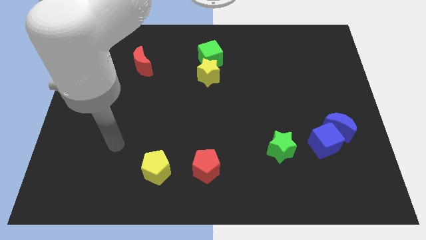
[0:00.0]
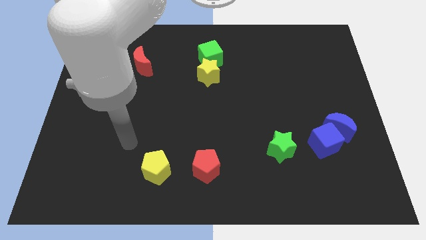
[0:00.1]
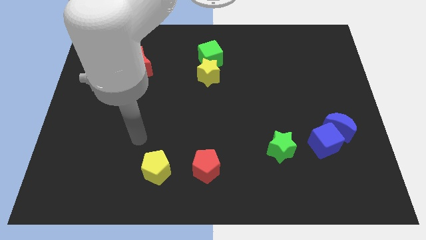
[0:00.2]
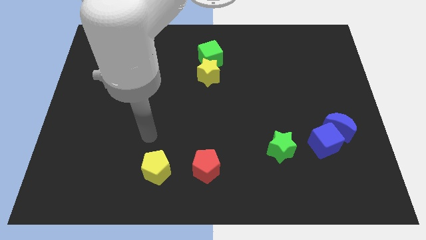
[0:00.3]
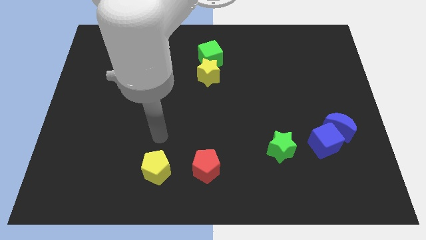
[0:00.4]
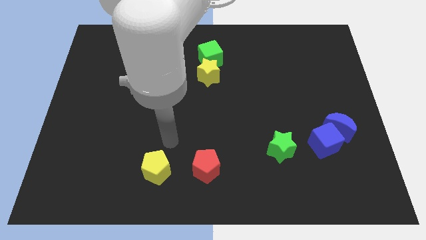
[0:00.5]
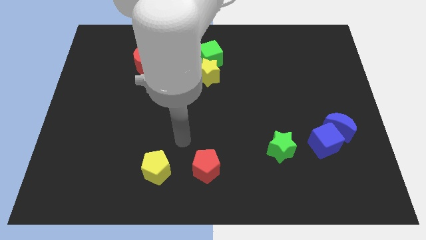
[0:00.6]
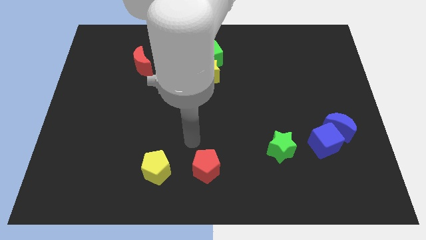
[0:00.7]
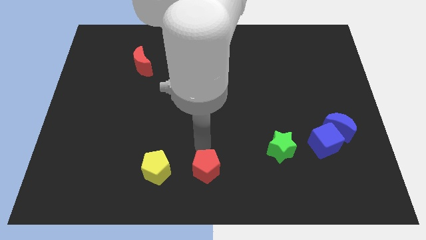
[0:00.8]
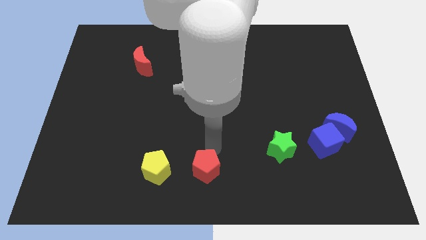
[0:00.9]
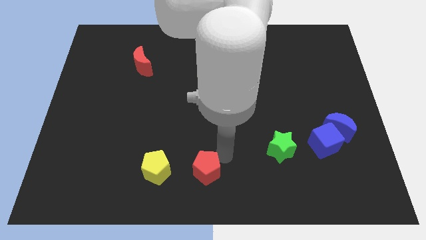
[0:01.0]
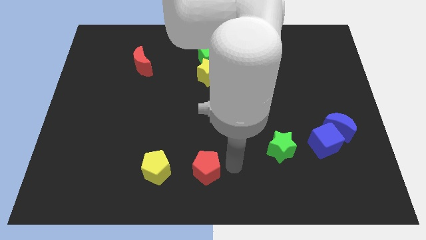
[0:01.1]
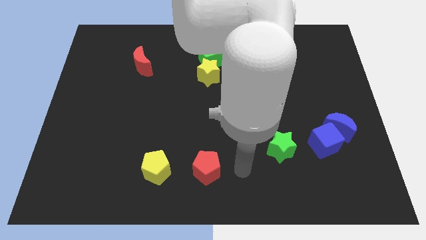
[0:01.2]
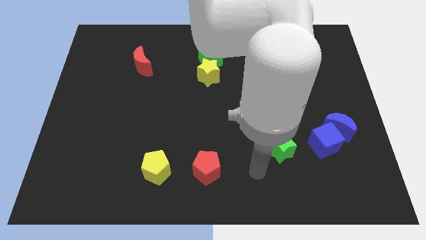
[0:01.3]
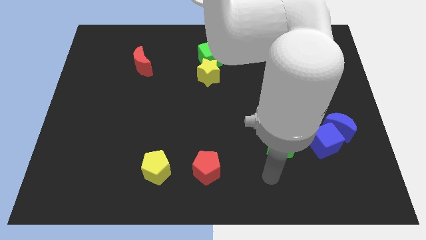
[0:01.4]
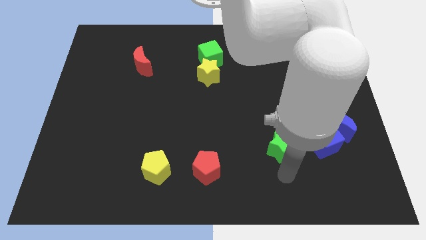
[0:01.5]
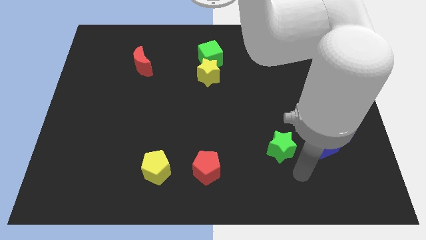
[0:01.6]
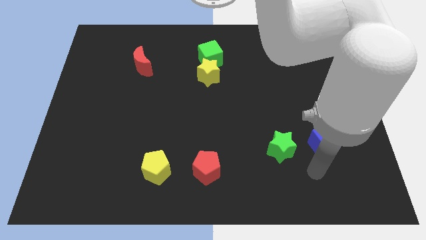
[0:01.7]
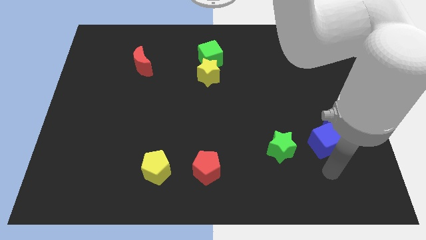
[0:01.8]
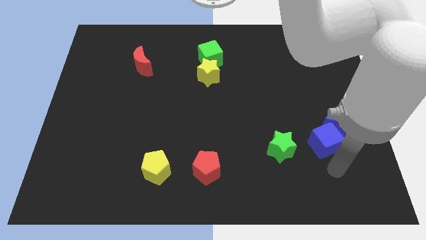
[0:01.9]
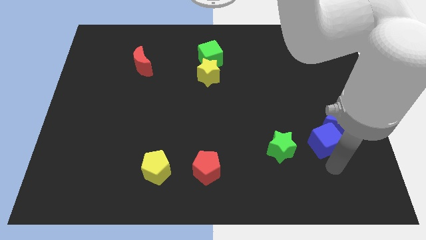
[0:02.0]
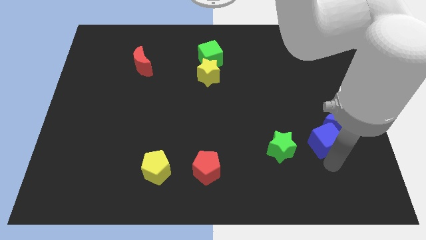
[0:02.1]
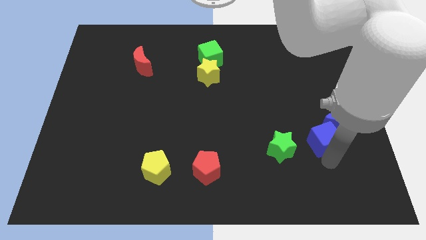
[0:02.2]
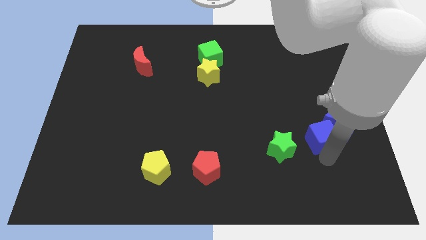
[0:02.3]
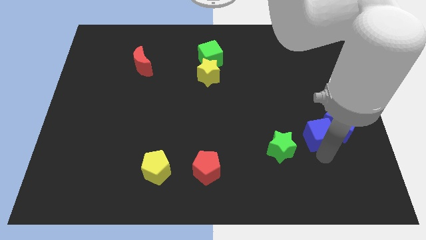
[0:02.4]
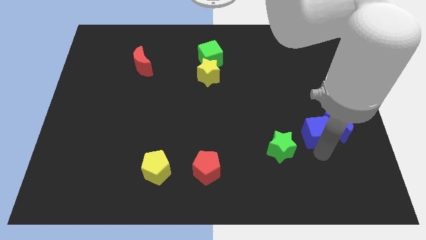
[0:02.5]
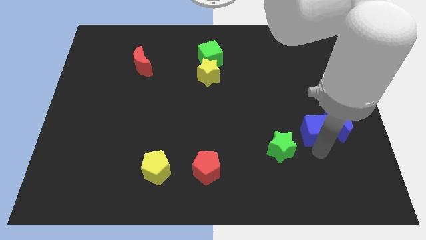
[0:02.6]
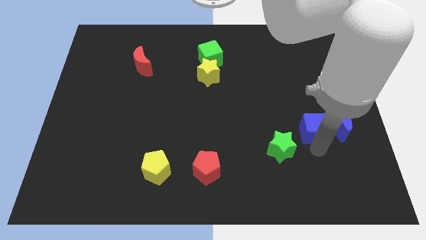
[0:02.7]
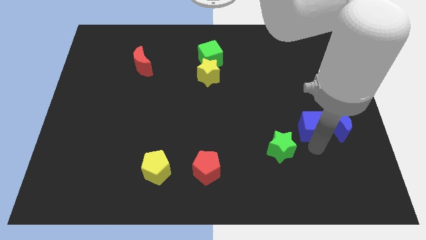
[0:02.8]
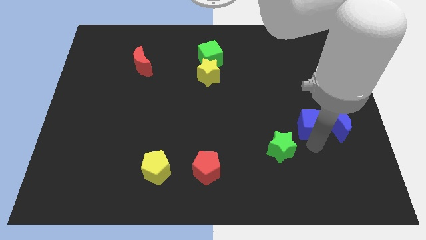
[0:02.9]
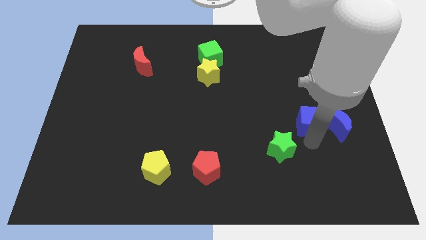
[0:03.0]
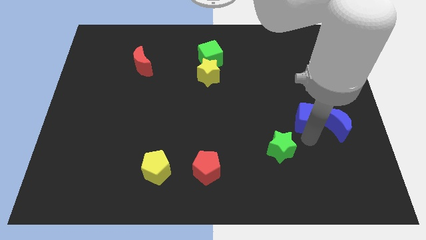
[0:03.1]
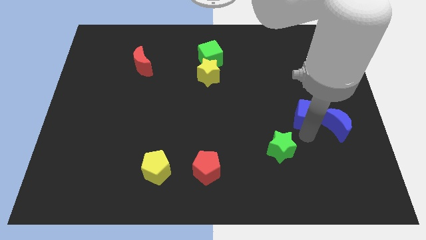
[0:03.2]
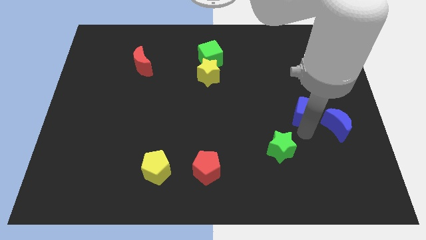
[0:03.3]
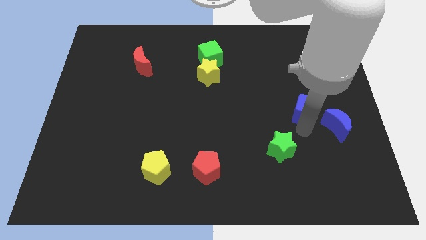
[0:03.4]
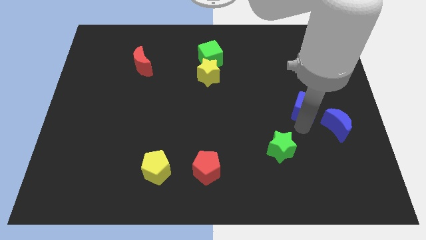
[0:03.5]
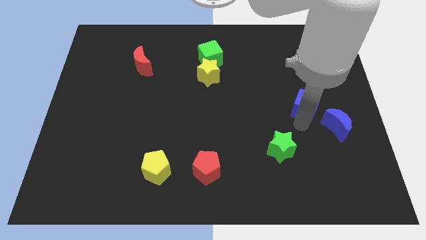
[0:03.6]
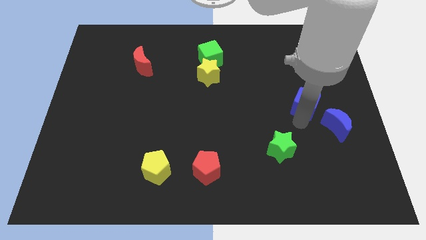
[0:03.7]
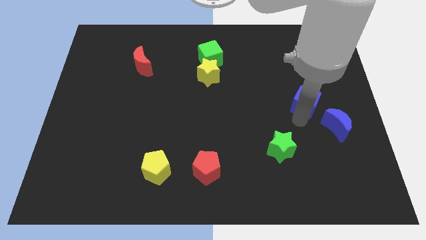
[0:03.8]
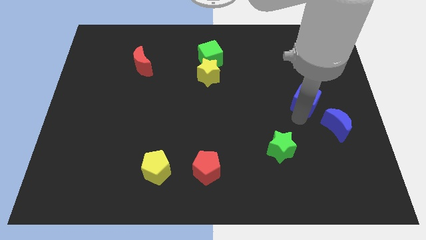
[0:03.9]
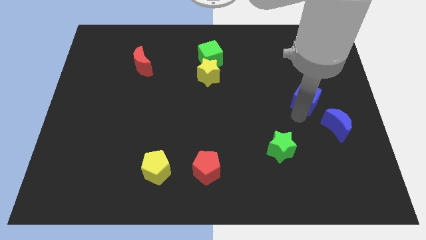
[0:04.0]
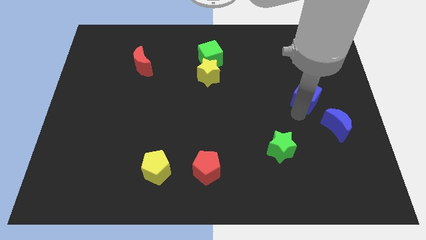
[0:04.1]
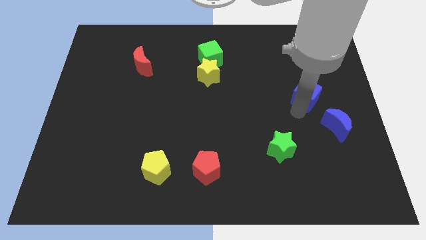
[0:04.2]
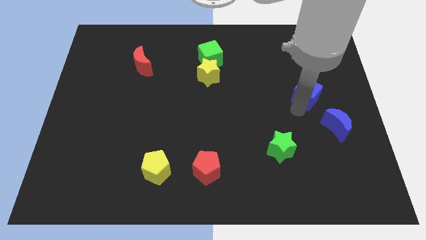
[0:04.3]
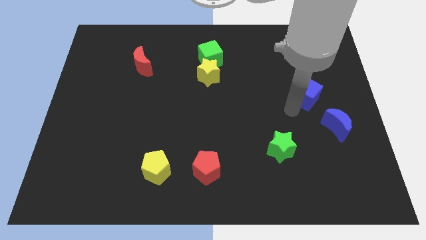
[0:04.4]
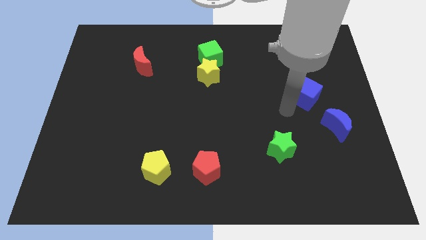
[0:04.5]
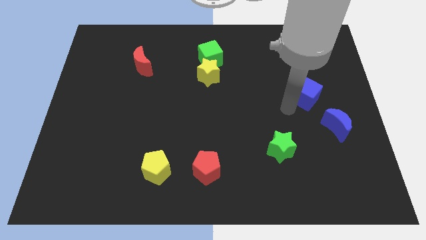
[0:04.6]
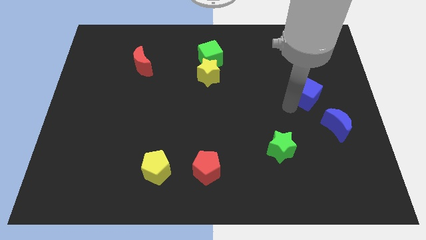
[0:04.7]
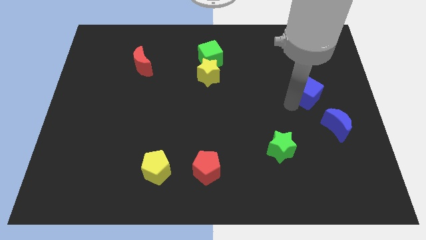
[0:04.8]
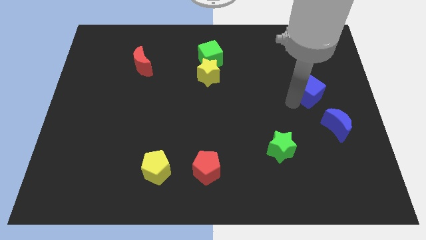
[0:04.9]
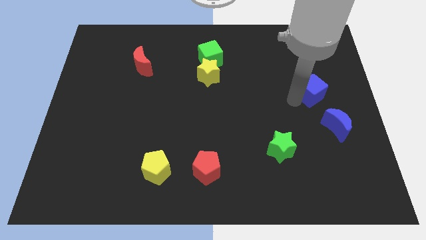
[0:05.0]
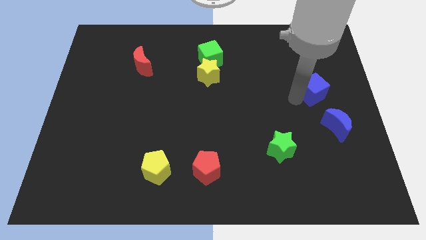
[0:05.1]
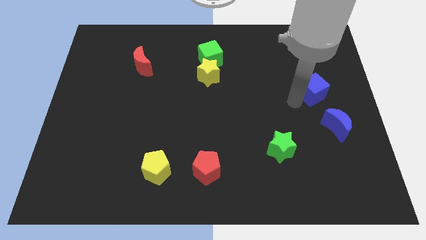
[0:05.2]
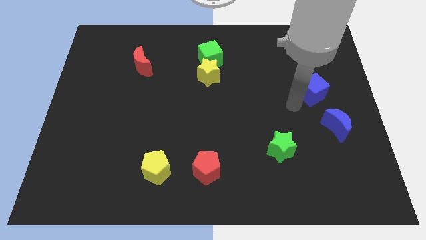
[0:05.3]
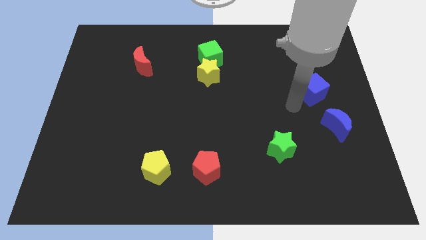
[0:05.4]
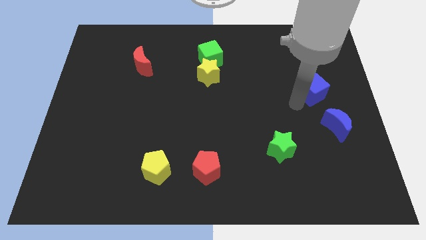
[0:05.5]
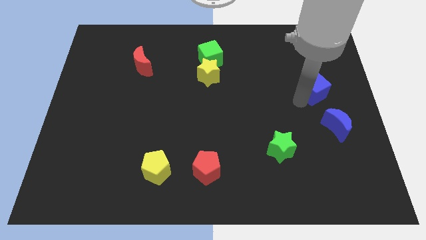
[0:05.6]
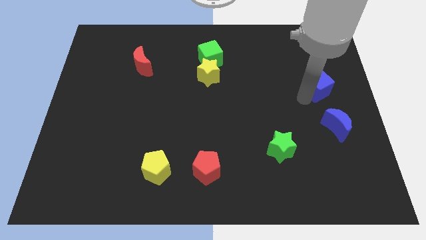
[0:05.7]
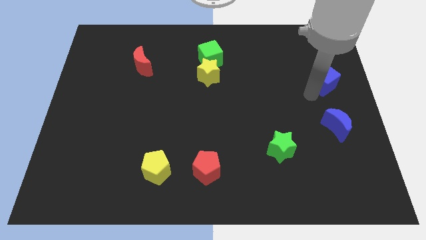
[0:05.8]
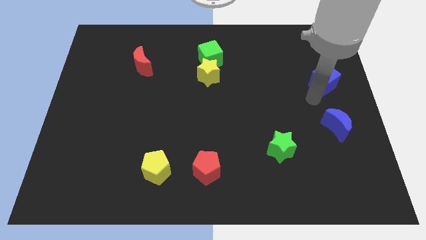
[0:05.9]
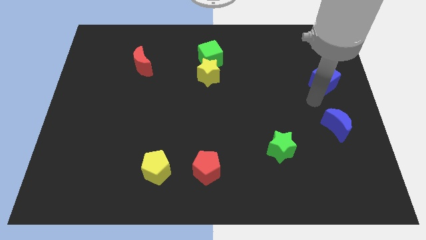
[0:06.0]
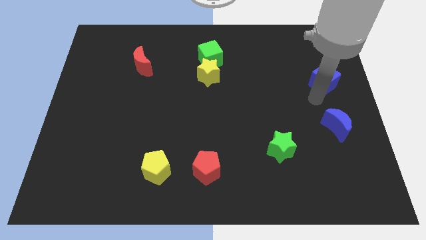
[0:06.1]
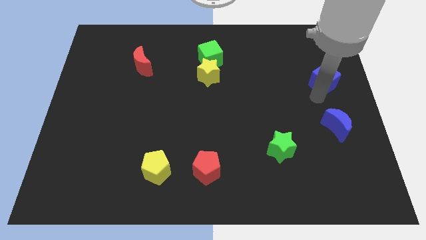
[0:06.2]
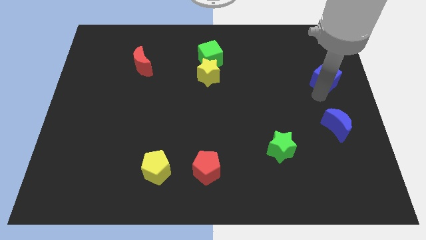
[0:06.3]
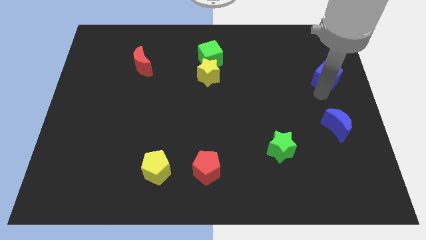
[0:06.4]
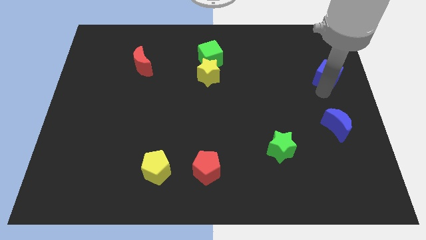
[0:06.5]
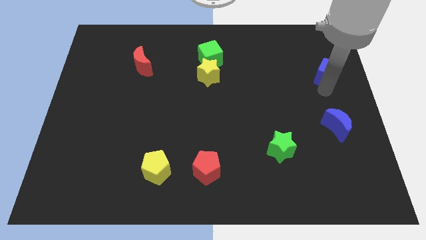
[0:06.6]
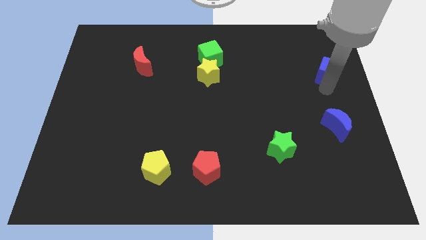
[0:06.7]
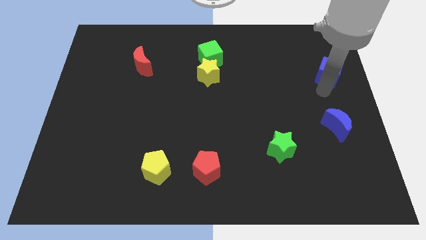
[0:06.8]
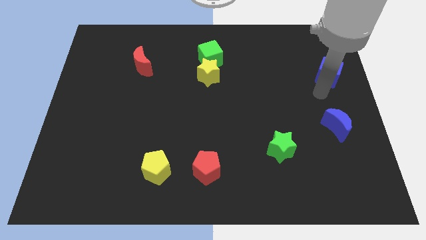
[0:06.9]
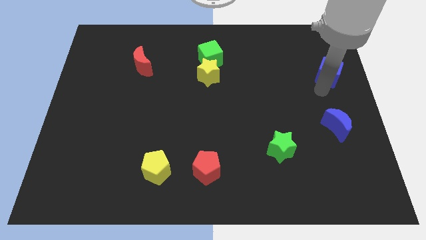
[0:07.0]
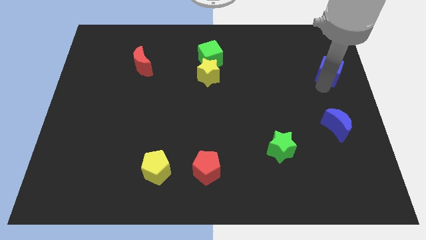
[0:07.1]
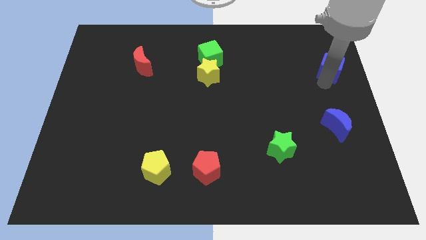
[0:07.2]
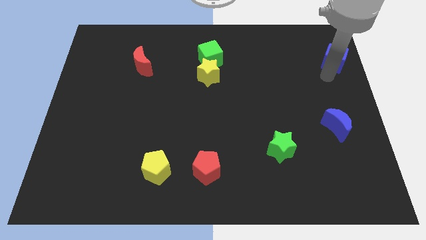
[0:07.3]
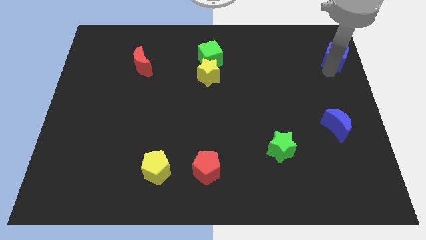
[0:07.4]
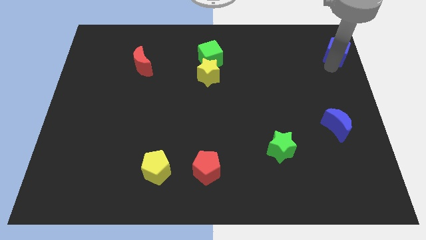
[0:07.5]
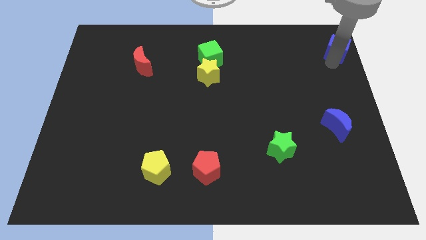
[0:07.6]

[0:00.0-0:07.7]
push the blue cube to the top right of the board
